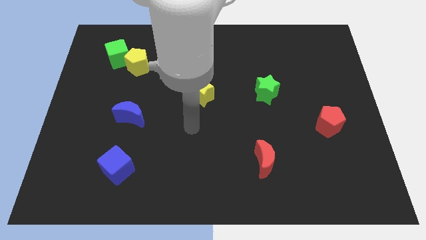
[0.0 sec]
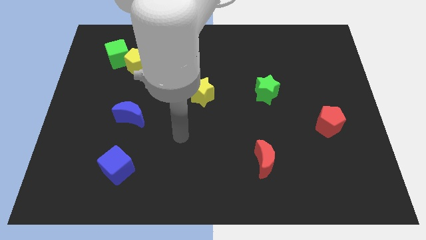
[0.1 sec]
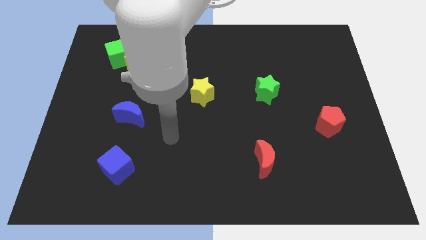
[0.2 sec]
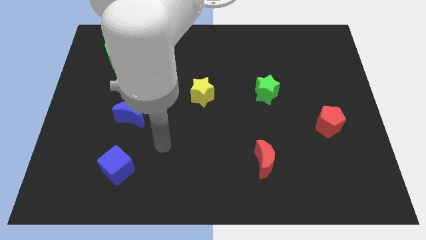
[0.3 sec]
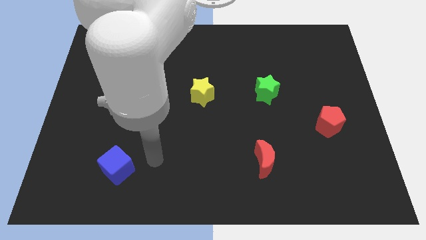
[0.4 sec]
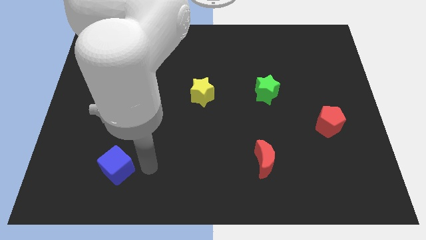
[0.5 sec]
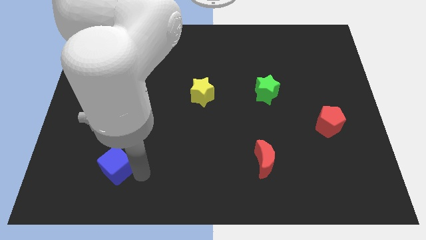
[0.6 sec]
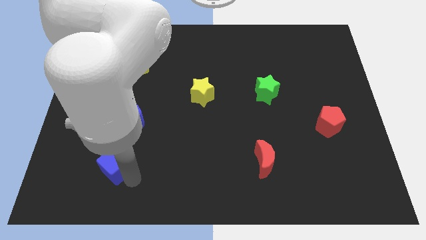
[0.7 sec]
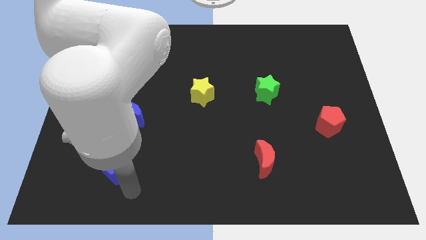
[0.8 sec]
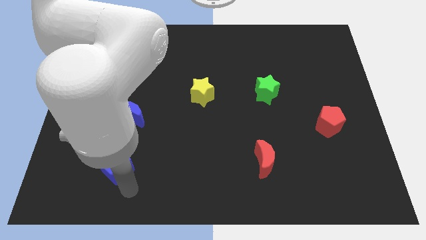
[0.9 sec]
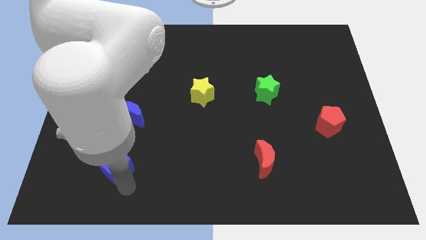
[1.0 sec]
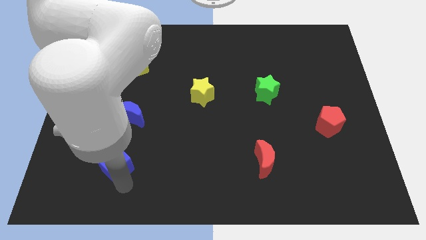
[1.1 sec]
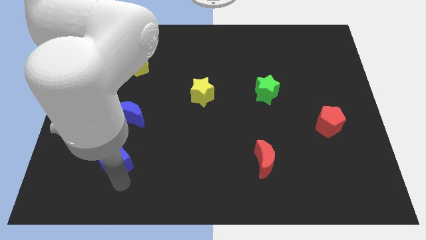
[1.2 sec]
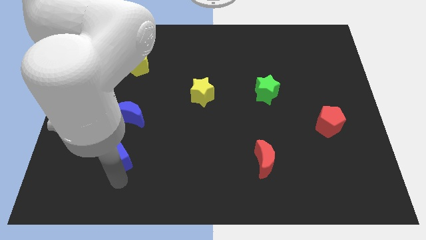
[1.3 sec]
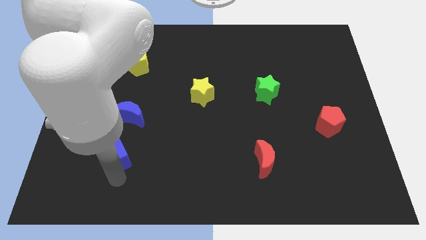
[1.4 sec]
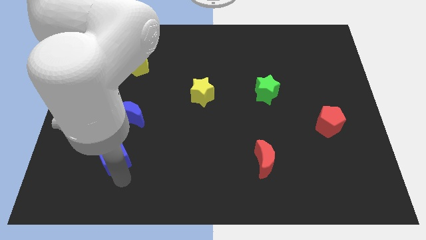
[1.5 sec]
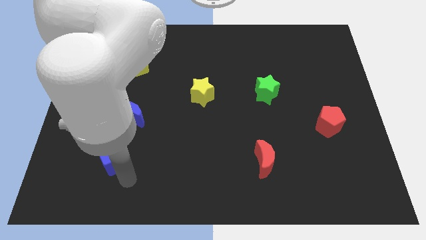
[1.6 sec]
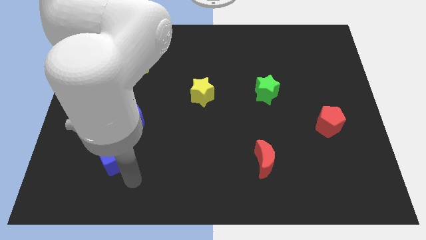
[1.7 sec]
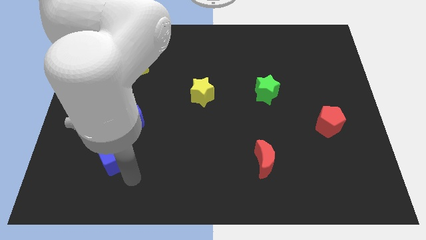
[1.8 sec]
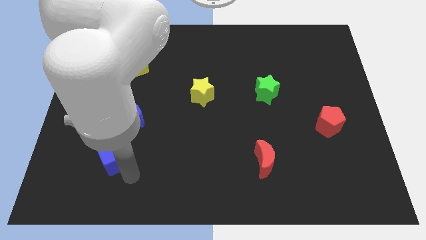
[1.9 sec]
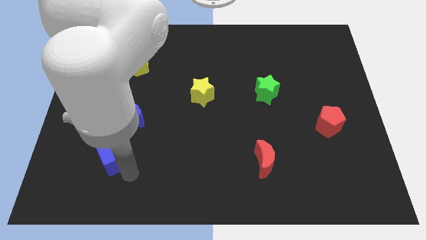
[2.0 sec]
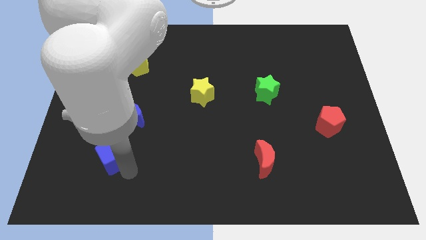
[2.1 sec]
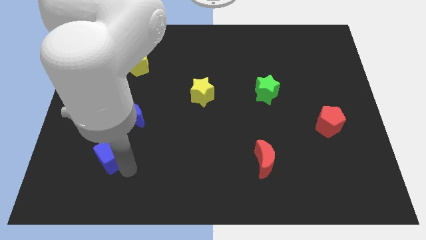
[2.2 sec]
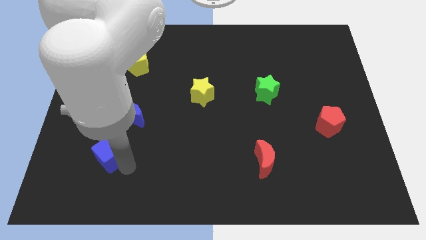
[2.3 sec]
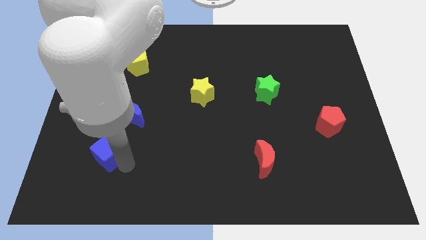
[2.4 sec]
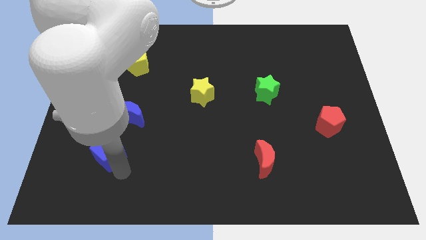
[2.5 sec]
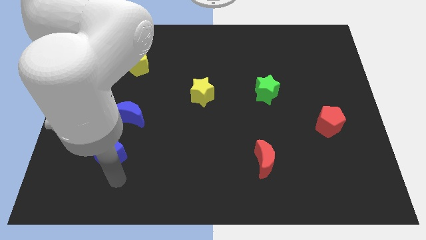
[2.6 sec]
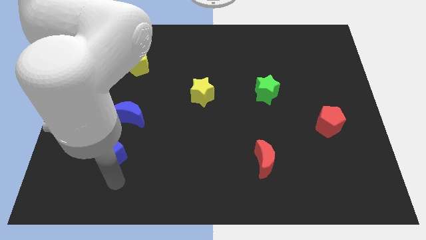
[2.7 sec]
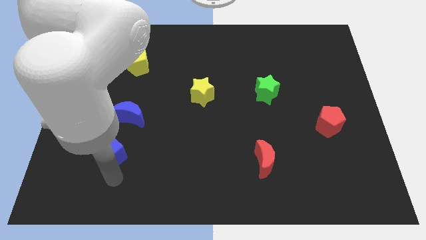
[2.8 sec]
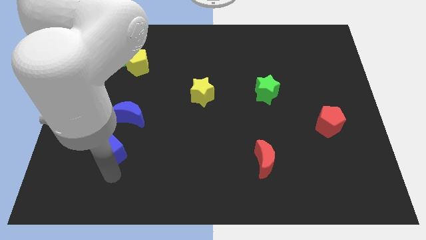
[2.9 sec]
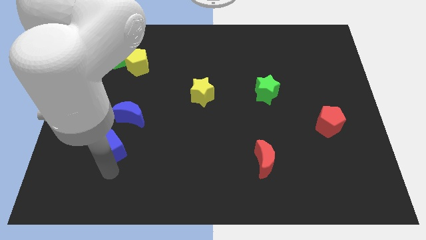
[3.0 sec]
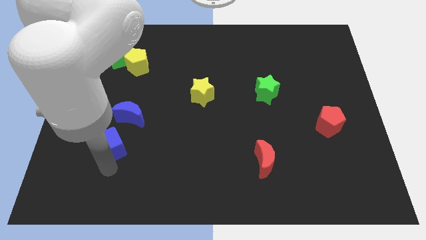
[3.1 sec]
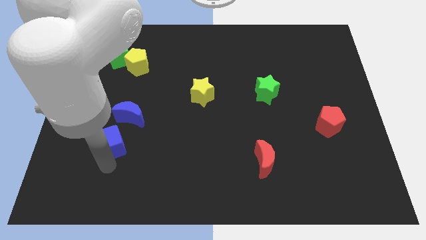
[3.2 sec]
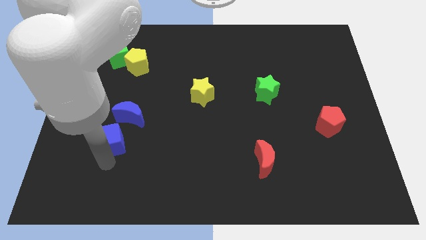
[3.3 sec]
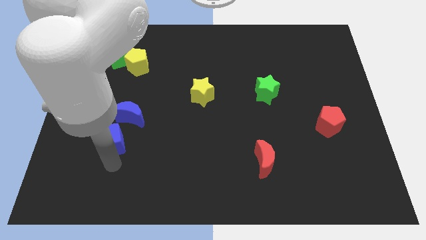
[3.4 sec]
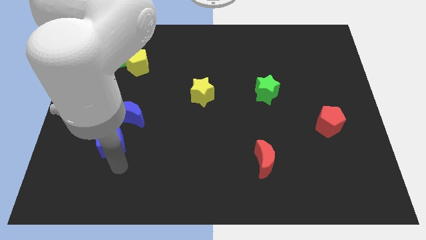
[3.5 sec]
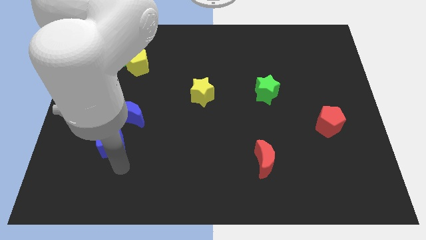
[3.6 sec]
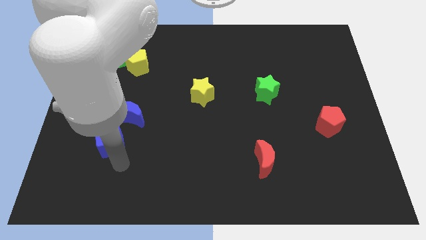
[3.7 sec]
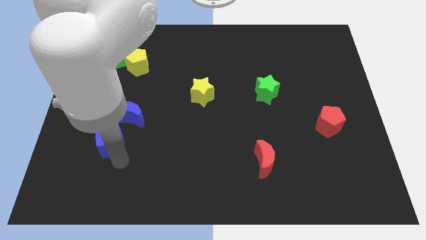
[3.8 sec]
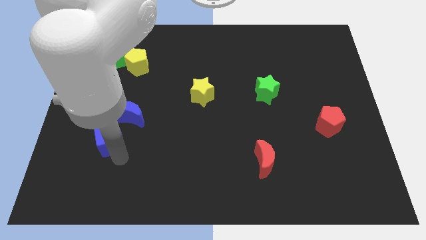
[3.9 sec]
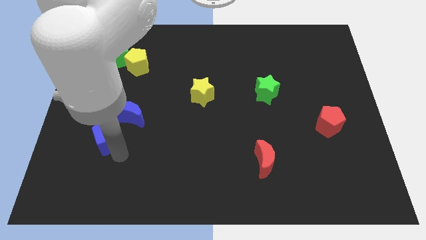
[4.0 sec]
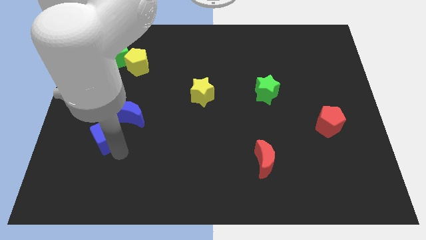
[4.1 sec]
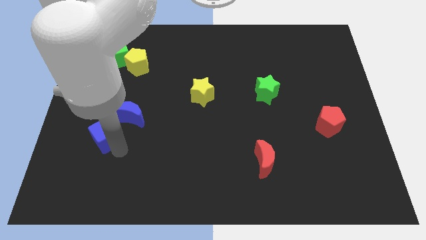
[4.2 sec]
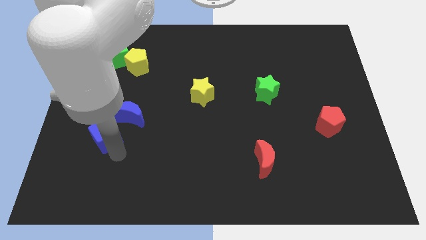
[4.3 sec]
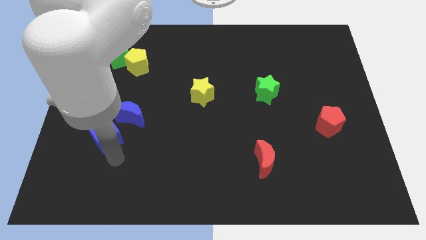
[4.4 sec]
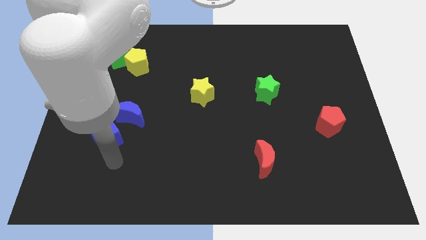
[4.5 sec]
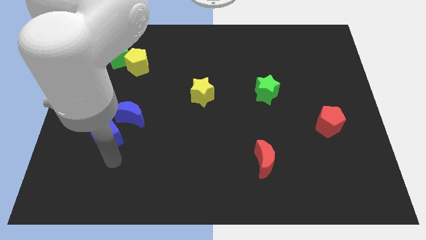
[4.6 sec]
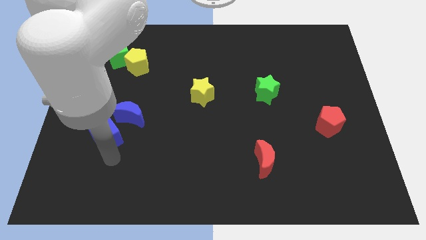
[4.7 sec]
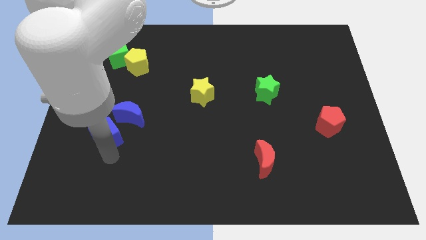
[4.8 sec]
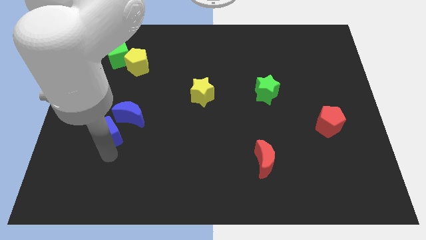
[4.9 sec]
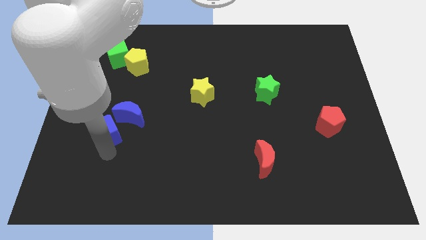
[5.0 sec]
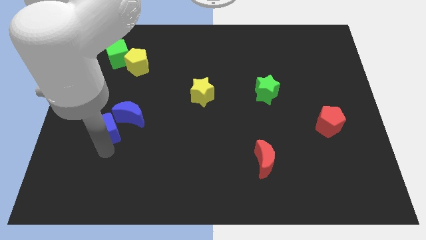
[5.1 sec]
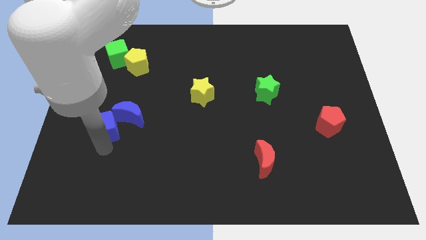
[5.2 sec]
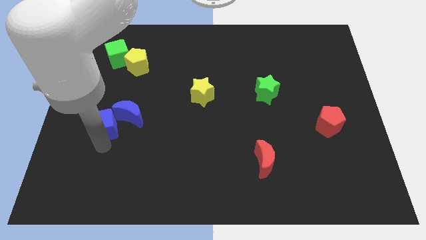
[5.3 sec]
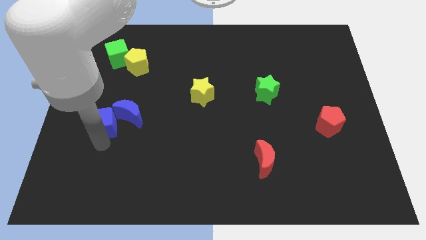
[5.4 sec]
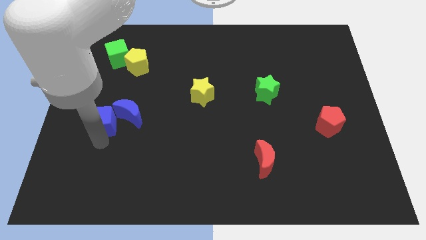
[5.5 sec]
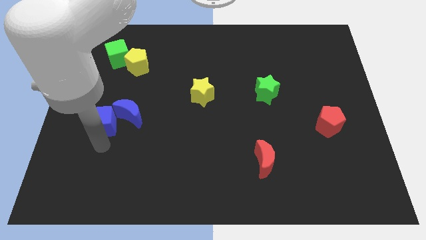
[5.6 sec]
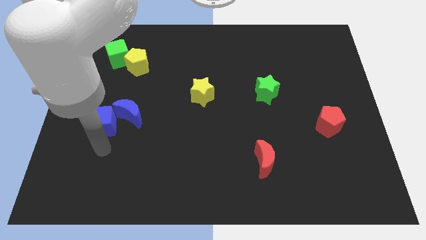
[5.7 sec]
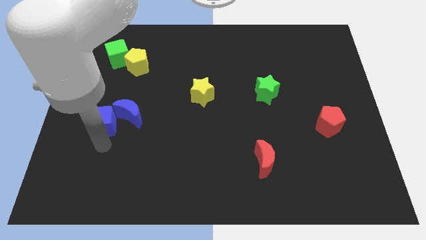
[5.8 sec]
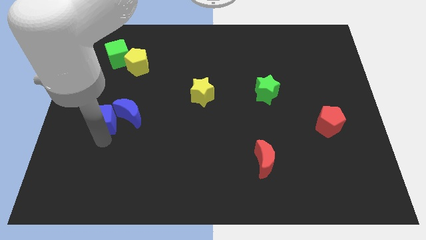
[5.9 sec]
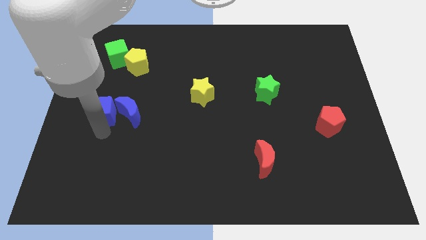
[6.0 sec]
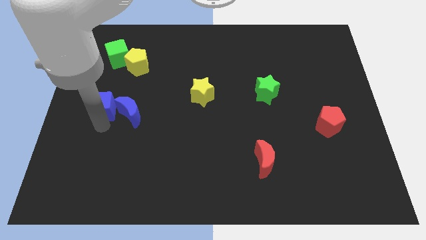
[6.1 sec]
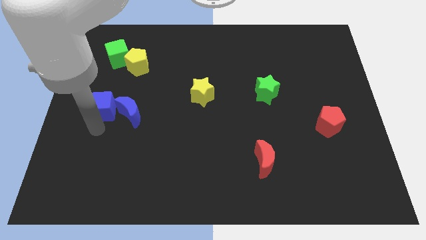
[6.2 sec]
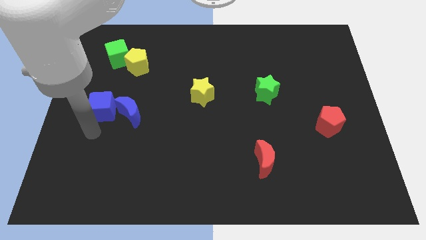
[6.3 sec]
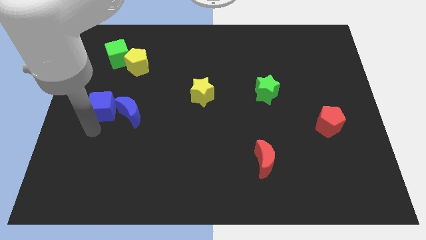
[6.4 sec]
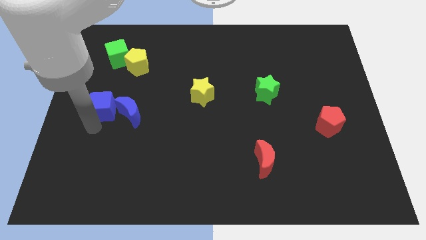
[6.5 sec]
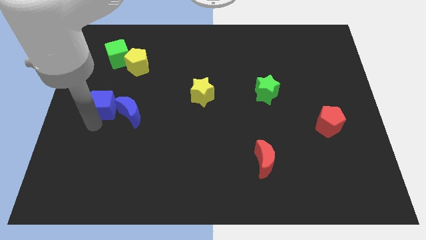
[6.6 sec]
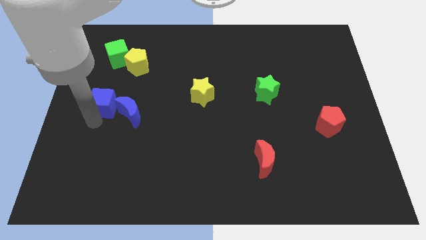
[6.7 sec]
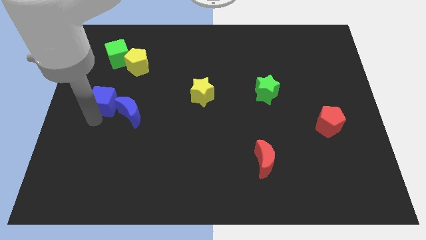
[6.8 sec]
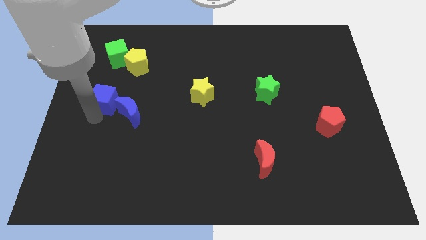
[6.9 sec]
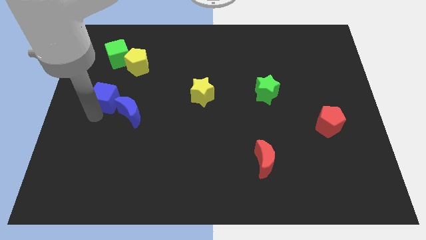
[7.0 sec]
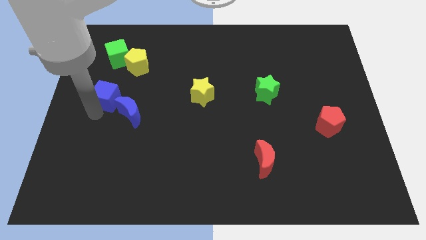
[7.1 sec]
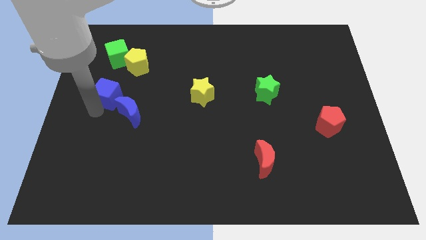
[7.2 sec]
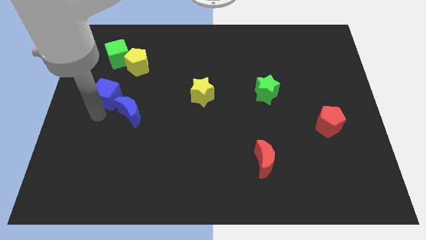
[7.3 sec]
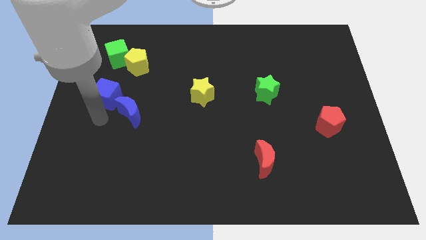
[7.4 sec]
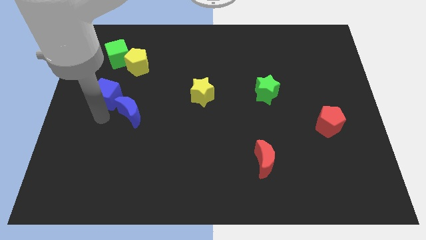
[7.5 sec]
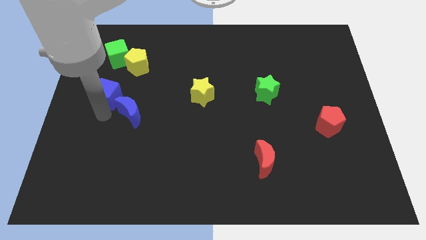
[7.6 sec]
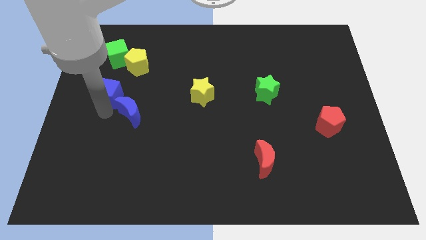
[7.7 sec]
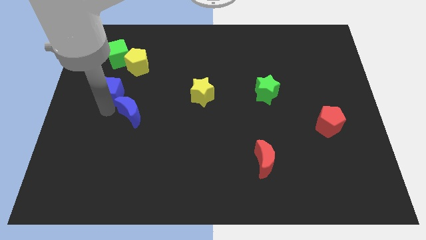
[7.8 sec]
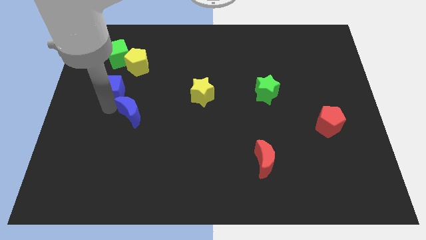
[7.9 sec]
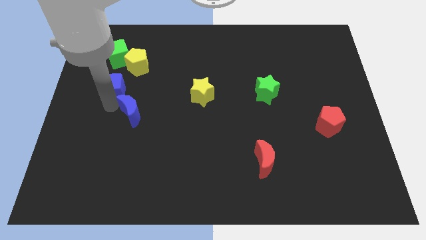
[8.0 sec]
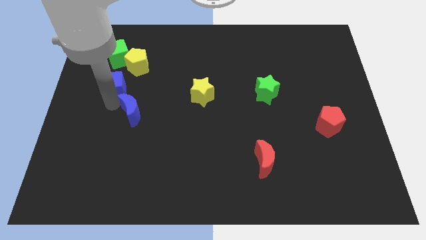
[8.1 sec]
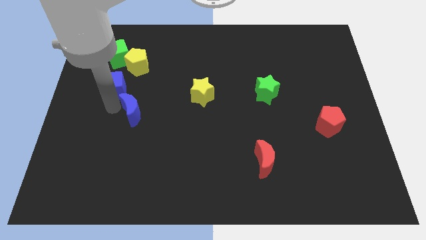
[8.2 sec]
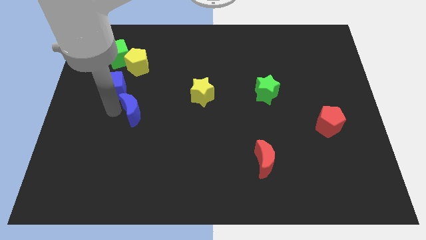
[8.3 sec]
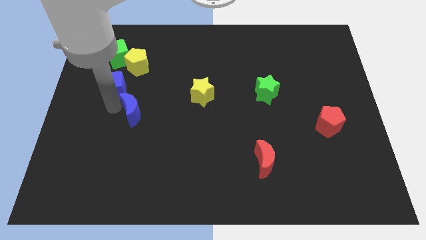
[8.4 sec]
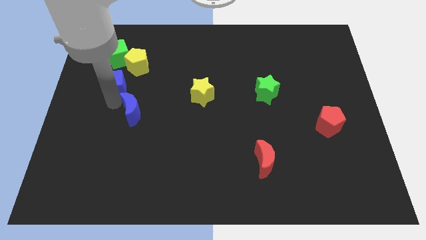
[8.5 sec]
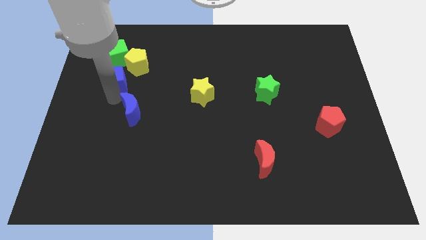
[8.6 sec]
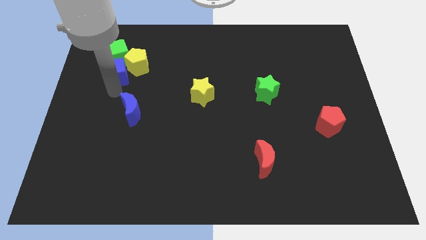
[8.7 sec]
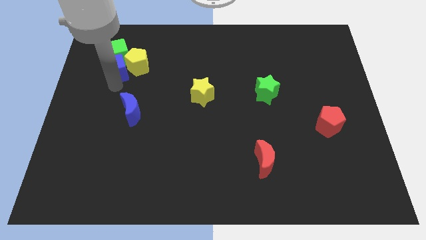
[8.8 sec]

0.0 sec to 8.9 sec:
push the blue cube next to the green cube
